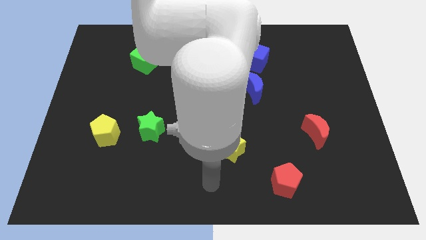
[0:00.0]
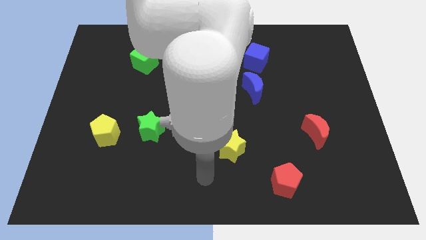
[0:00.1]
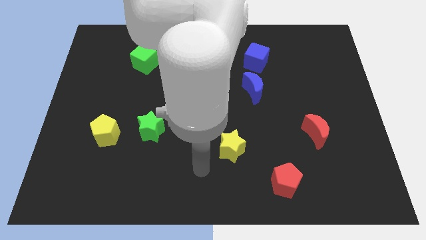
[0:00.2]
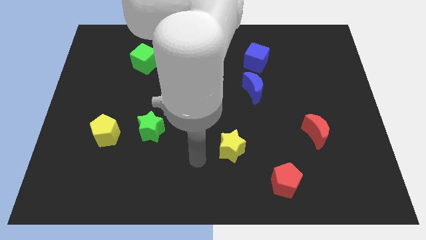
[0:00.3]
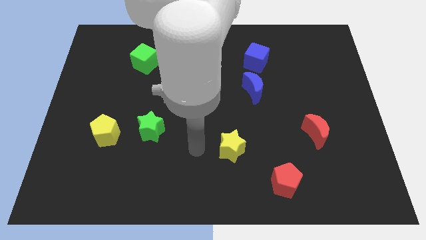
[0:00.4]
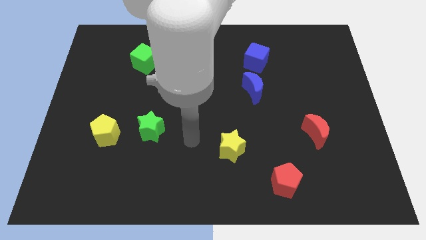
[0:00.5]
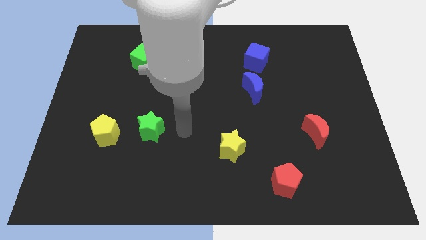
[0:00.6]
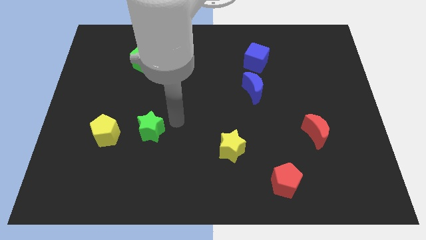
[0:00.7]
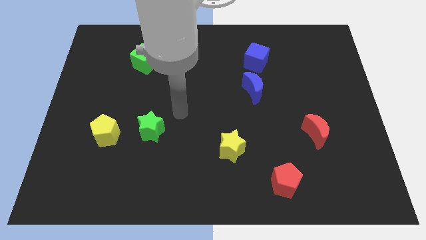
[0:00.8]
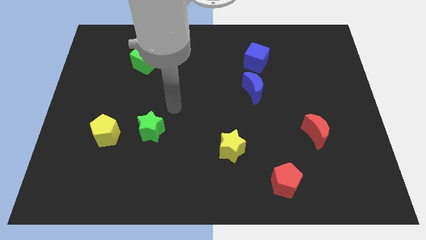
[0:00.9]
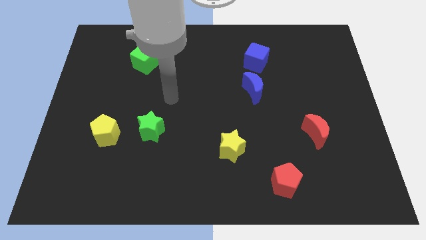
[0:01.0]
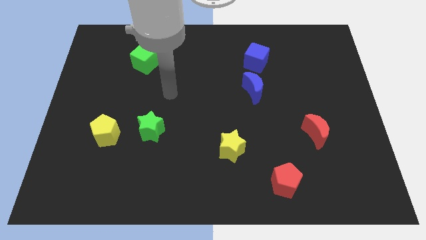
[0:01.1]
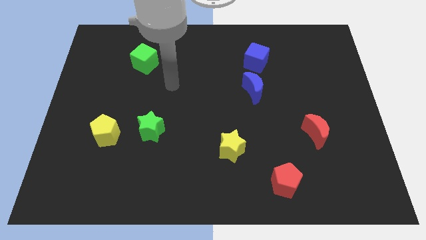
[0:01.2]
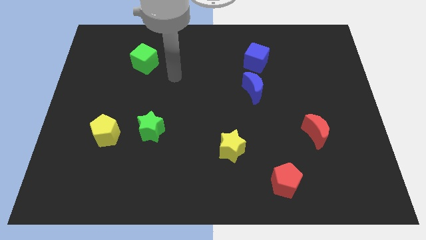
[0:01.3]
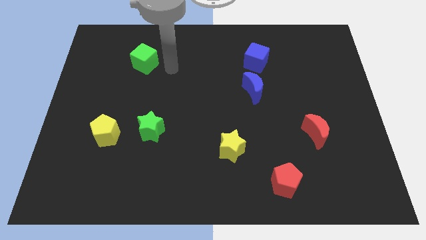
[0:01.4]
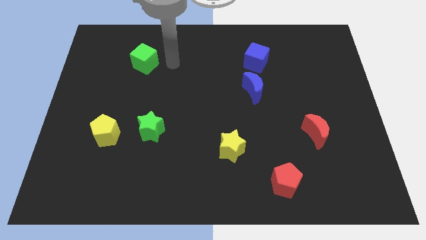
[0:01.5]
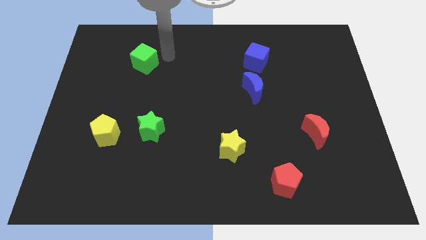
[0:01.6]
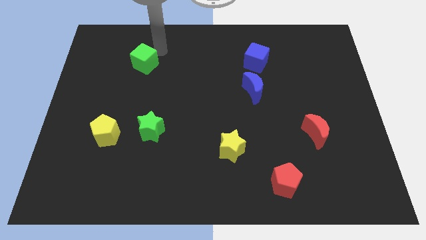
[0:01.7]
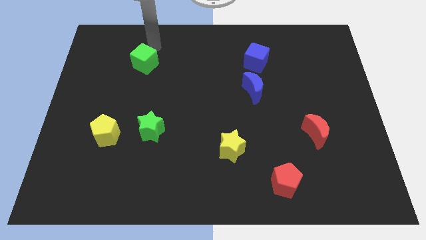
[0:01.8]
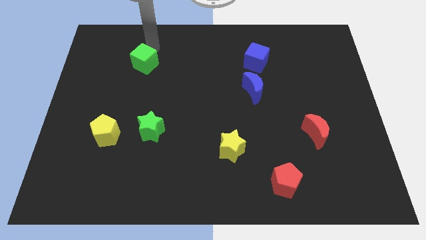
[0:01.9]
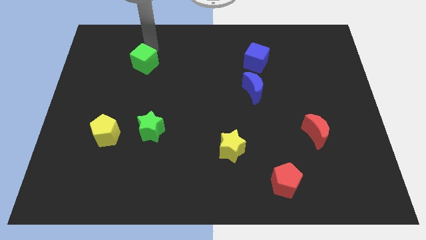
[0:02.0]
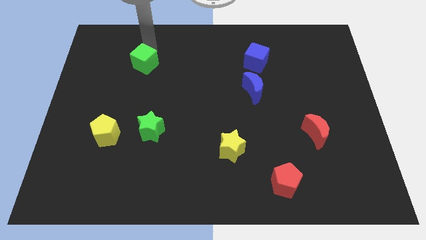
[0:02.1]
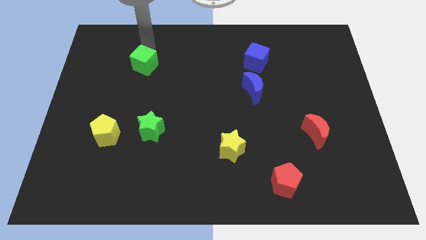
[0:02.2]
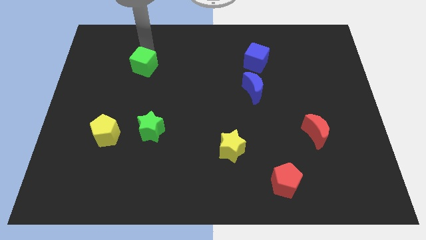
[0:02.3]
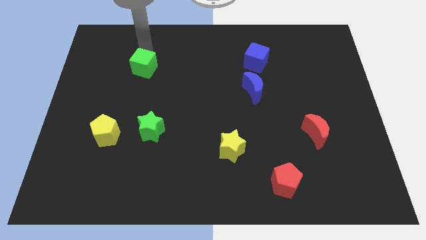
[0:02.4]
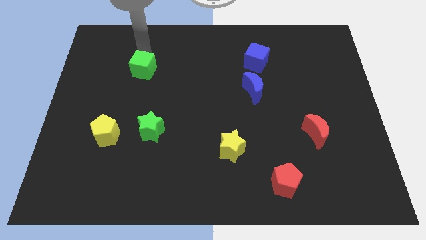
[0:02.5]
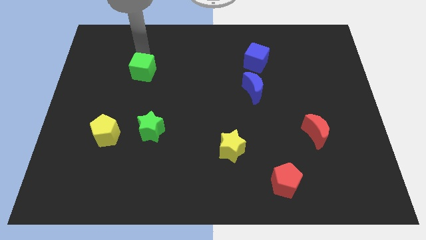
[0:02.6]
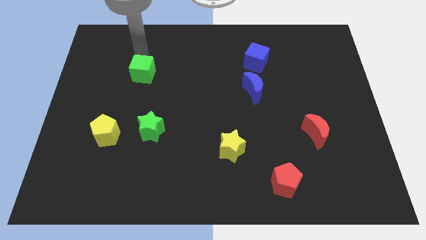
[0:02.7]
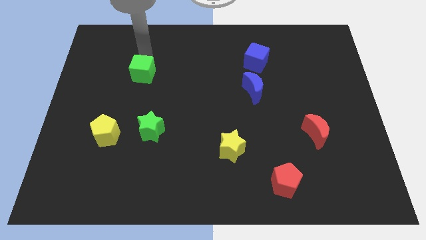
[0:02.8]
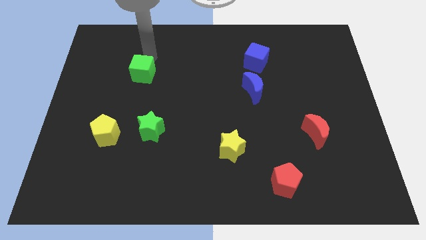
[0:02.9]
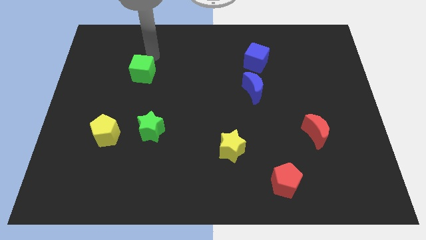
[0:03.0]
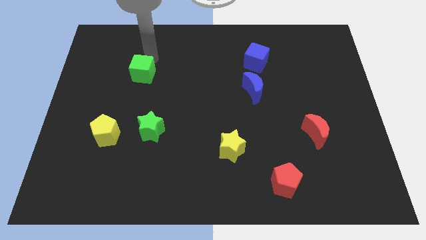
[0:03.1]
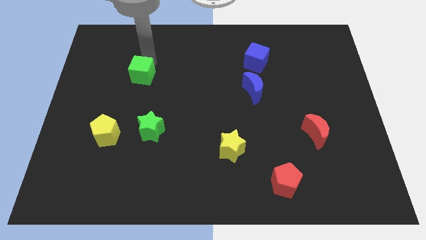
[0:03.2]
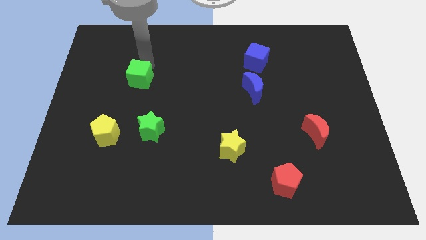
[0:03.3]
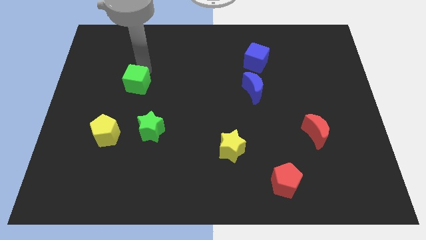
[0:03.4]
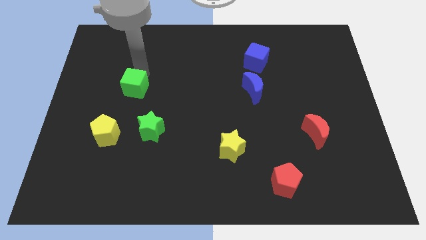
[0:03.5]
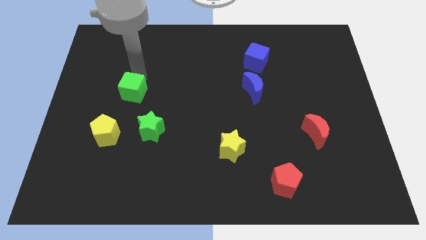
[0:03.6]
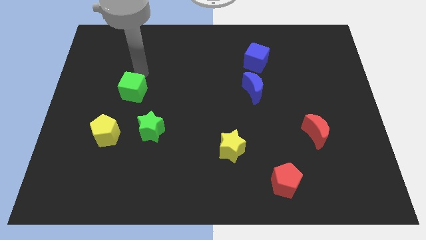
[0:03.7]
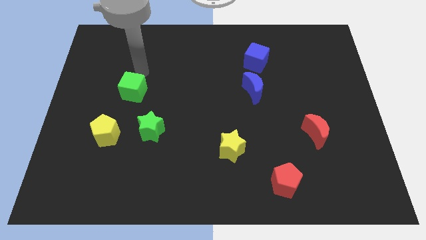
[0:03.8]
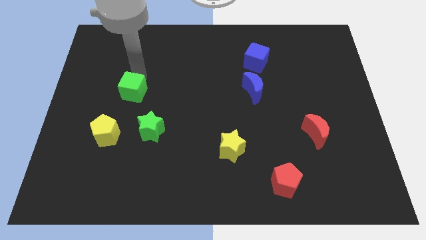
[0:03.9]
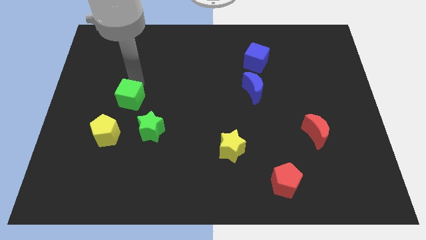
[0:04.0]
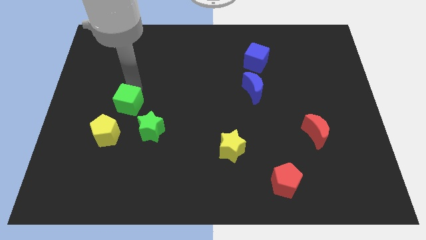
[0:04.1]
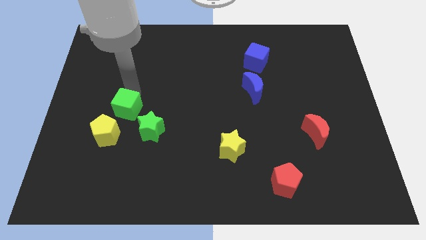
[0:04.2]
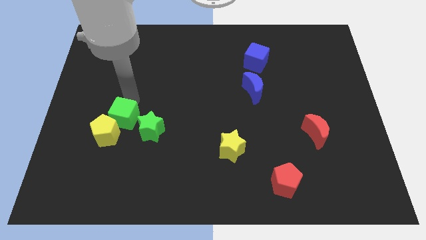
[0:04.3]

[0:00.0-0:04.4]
slide the green cube close to the yellow pentagon

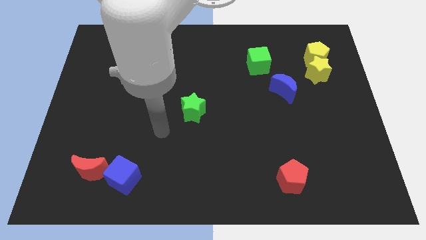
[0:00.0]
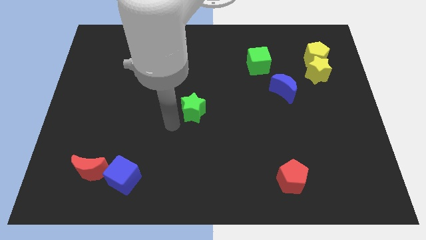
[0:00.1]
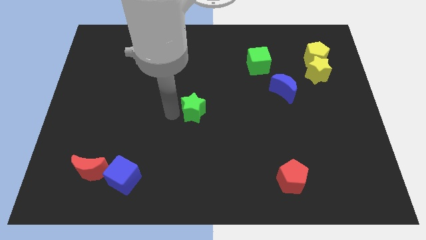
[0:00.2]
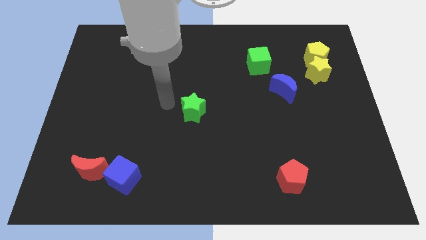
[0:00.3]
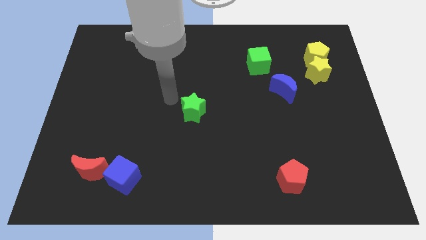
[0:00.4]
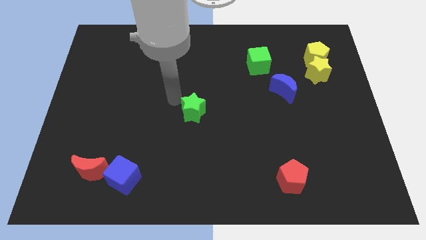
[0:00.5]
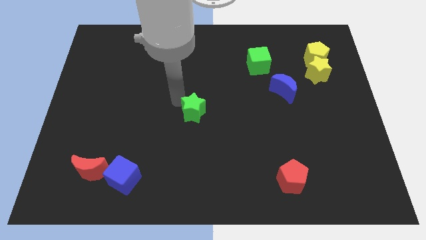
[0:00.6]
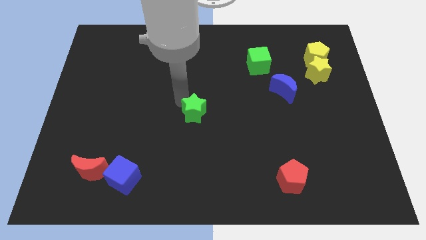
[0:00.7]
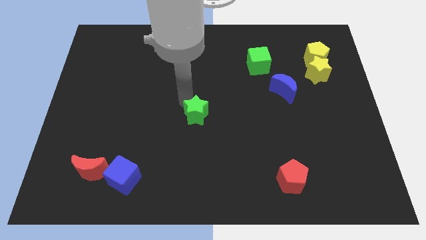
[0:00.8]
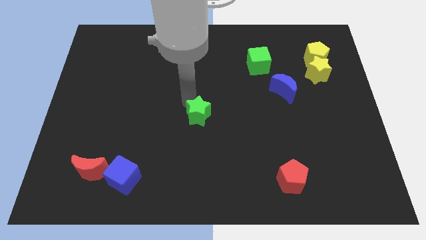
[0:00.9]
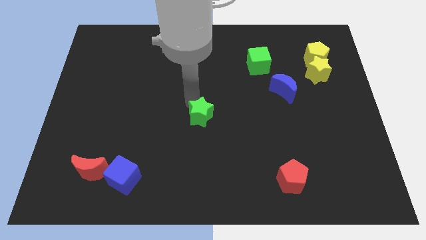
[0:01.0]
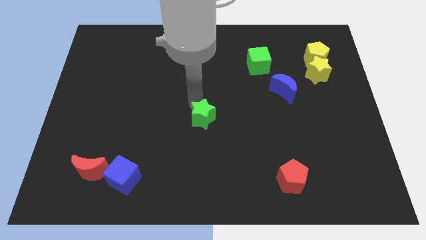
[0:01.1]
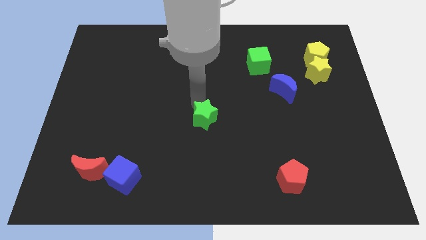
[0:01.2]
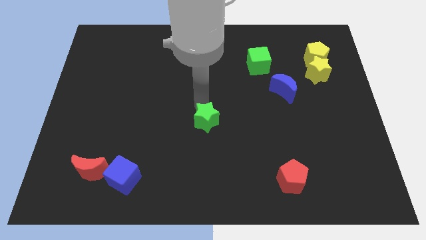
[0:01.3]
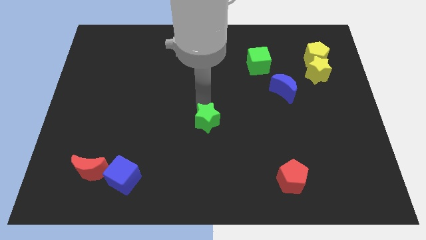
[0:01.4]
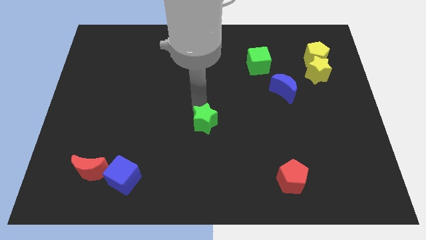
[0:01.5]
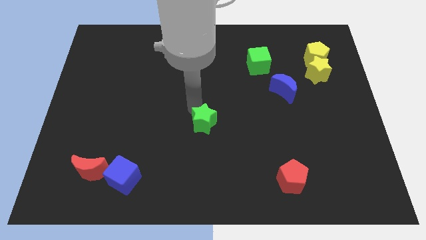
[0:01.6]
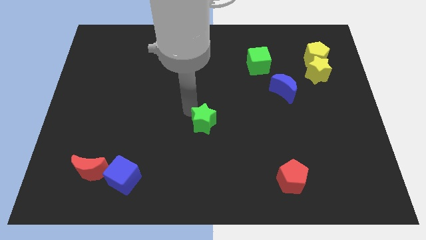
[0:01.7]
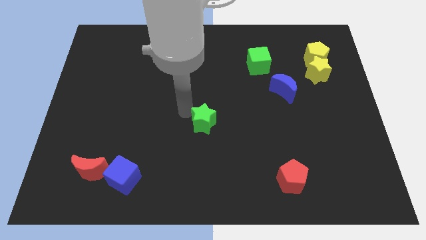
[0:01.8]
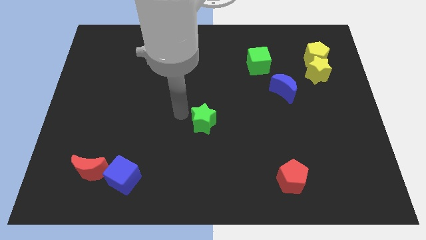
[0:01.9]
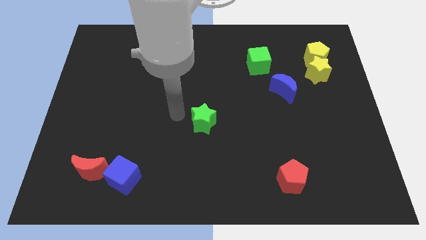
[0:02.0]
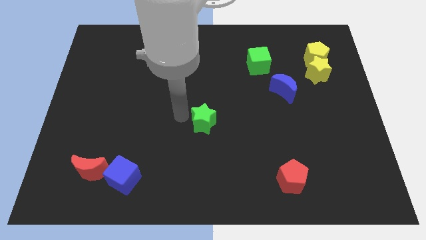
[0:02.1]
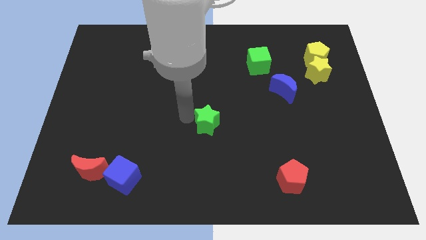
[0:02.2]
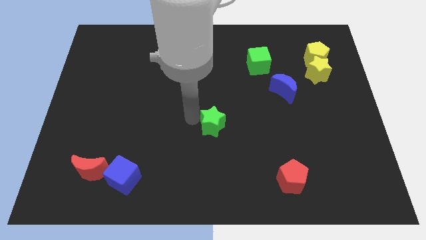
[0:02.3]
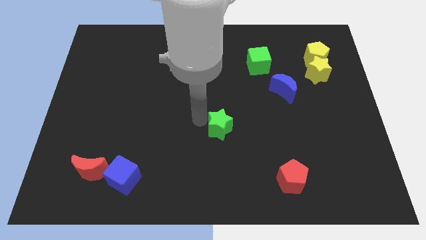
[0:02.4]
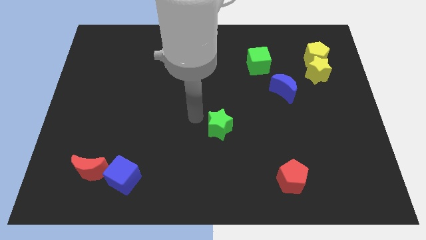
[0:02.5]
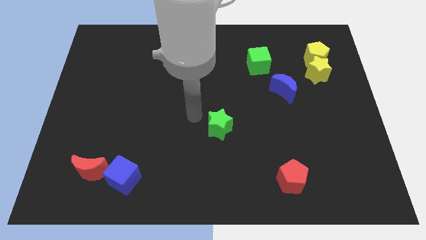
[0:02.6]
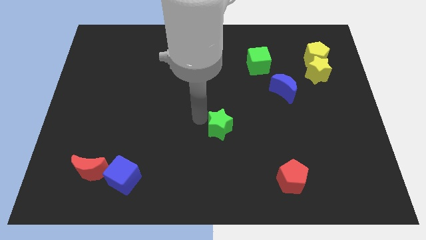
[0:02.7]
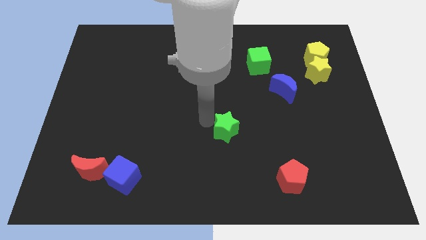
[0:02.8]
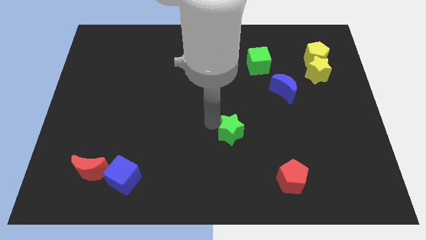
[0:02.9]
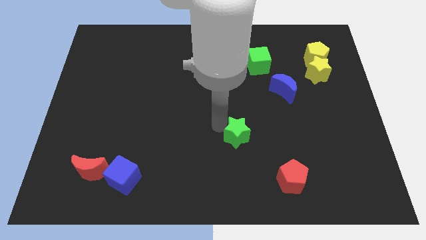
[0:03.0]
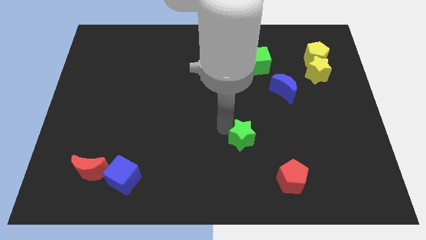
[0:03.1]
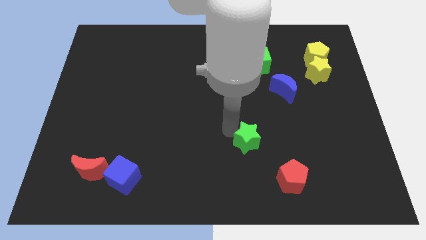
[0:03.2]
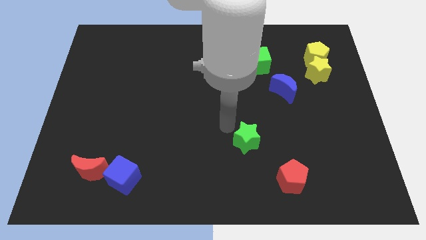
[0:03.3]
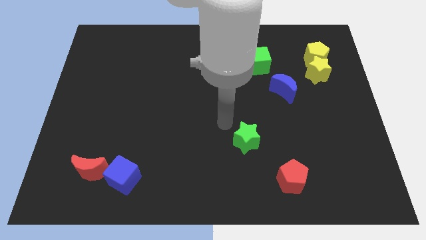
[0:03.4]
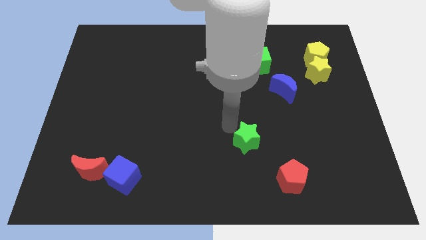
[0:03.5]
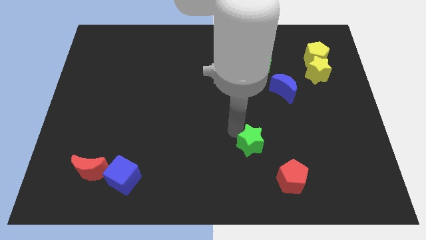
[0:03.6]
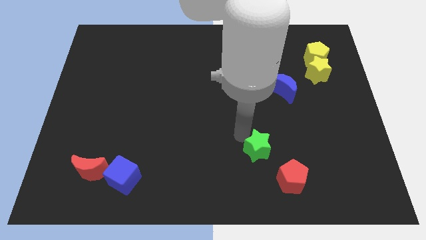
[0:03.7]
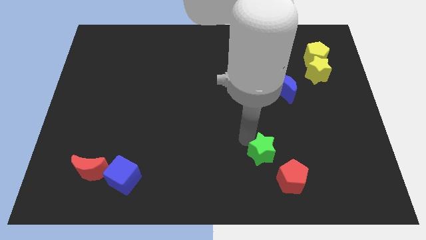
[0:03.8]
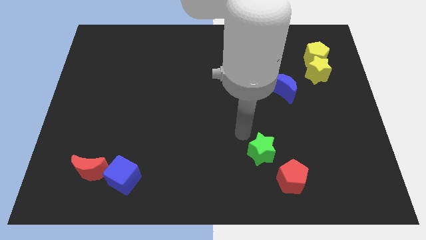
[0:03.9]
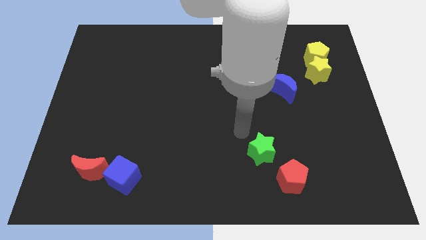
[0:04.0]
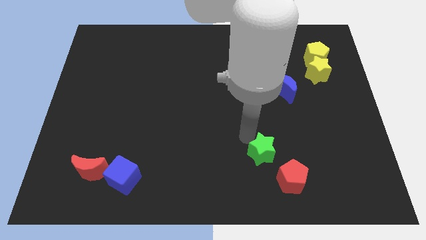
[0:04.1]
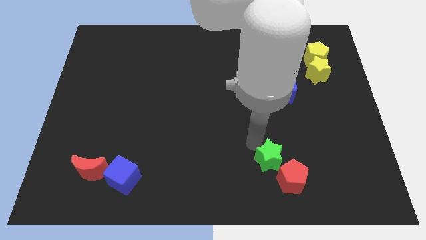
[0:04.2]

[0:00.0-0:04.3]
push the green star close to the red pentagon
